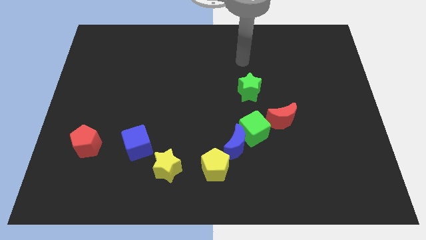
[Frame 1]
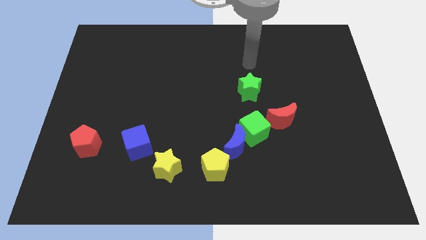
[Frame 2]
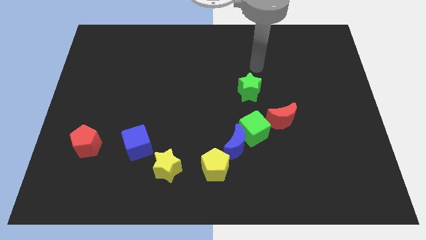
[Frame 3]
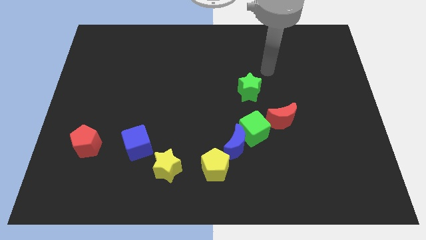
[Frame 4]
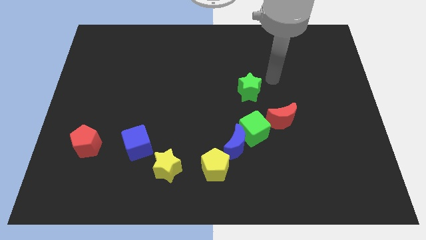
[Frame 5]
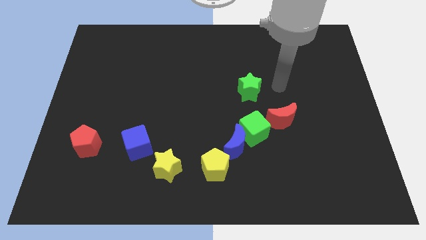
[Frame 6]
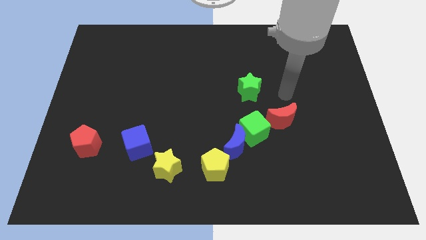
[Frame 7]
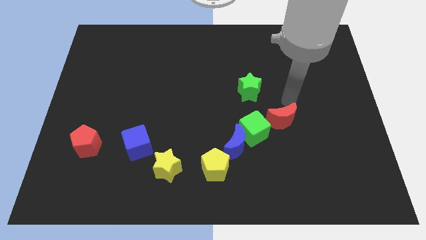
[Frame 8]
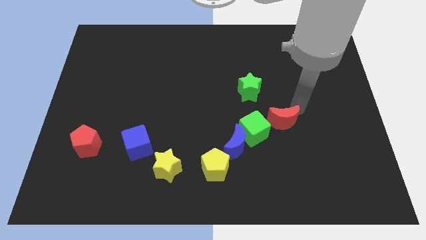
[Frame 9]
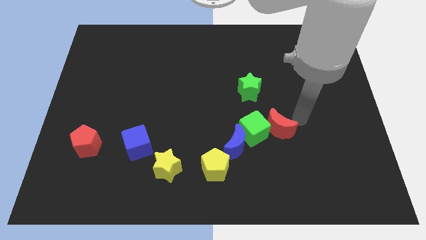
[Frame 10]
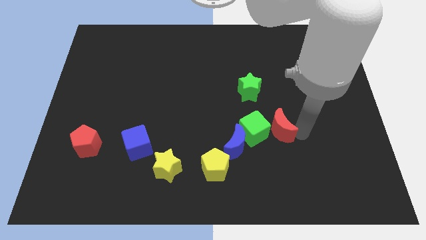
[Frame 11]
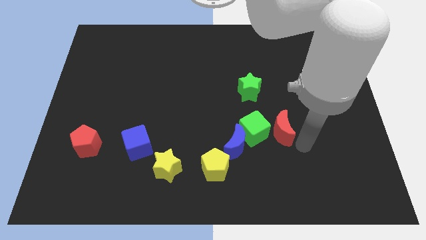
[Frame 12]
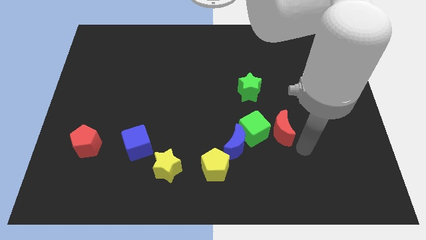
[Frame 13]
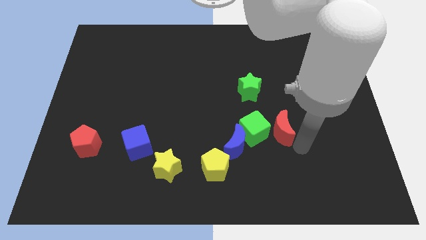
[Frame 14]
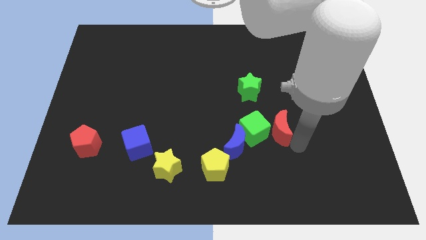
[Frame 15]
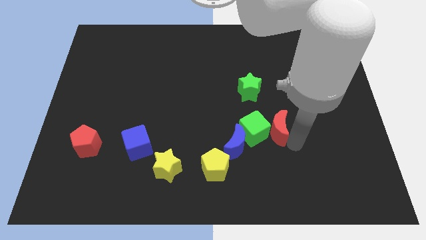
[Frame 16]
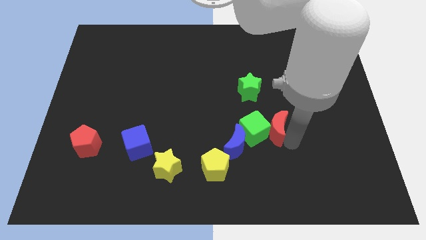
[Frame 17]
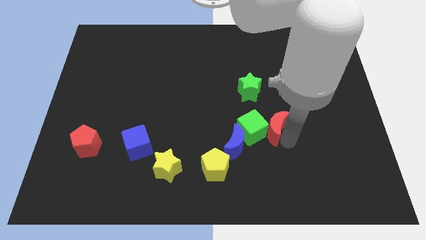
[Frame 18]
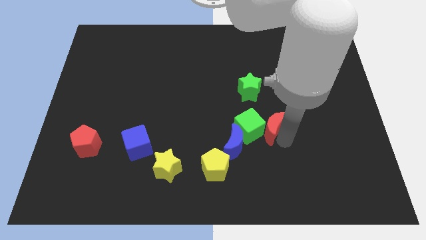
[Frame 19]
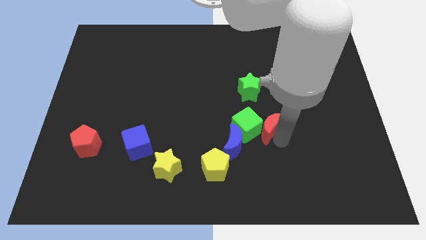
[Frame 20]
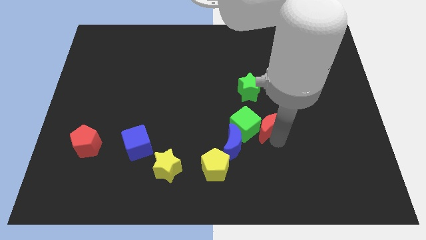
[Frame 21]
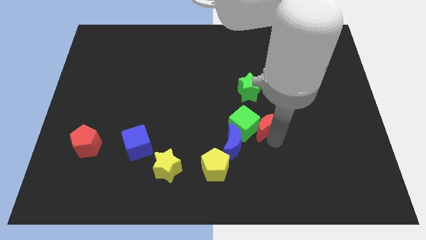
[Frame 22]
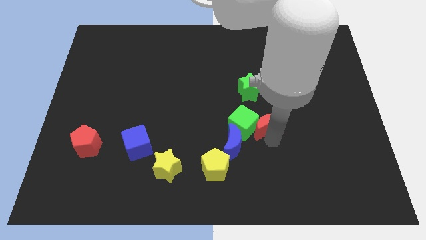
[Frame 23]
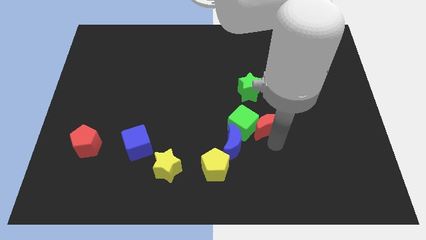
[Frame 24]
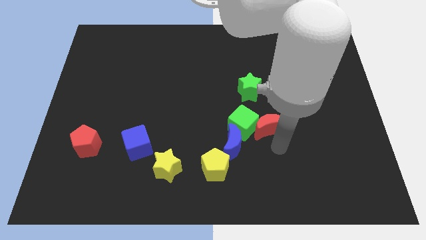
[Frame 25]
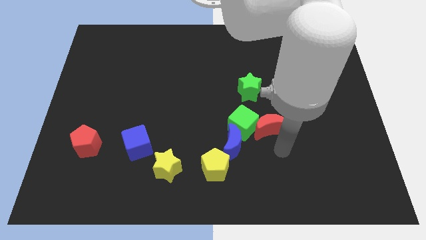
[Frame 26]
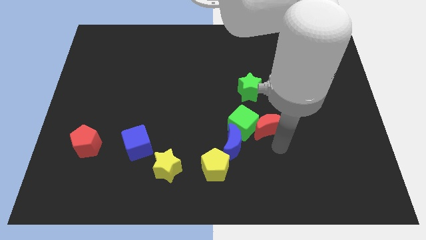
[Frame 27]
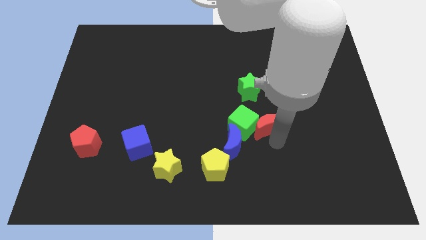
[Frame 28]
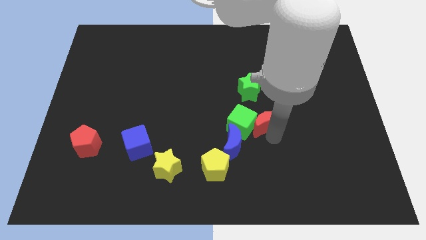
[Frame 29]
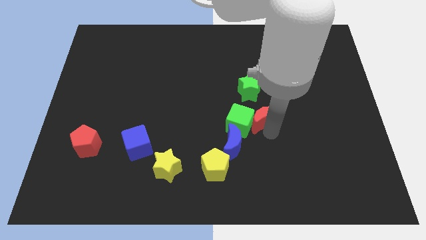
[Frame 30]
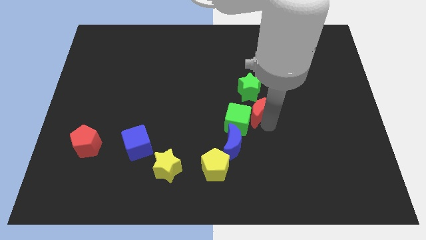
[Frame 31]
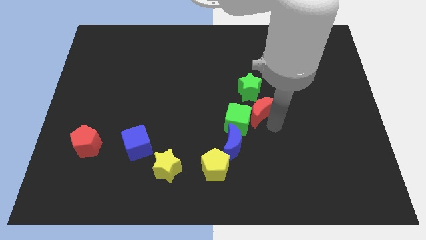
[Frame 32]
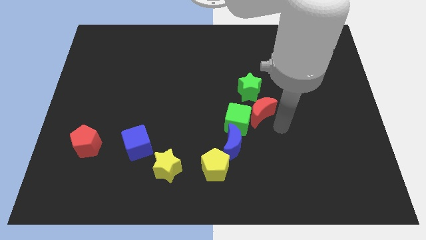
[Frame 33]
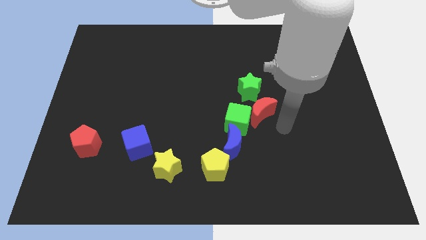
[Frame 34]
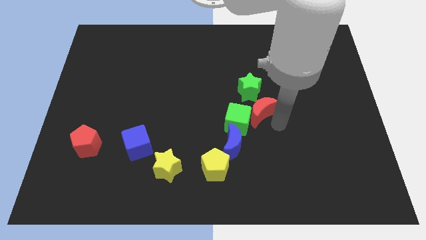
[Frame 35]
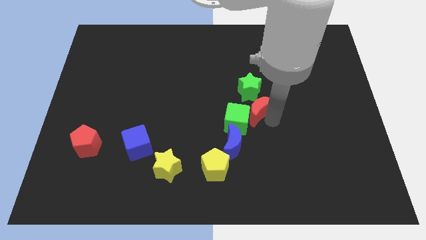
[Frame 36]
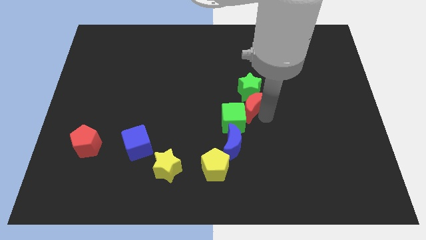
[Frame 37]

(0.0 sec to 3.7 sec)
slide the red moon a little upwards and then left

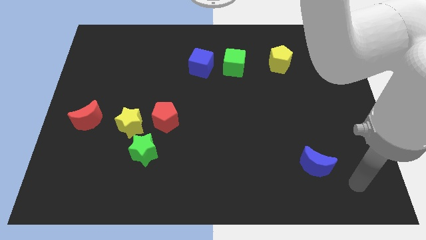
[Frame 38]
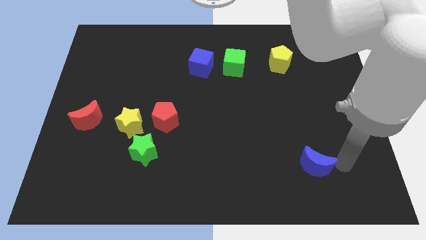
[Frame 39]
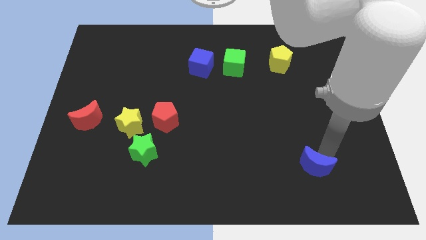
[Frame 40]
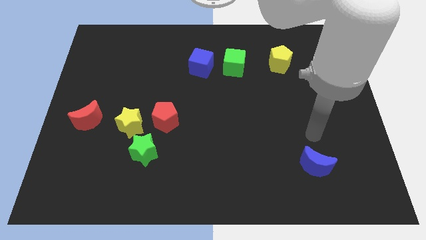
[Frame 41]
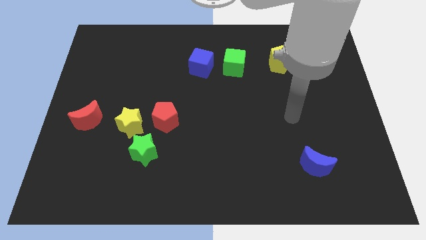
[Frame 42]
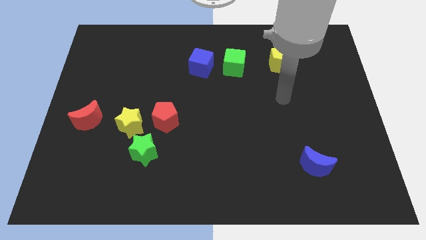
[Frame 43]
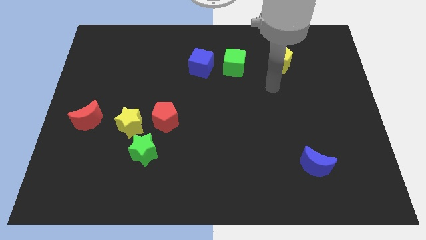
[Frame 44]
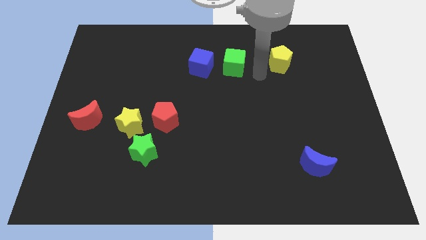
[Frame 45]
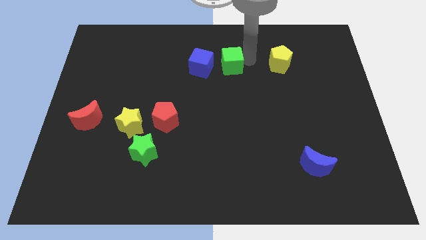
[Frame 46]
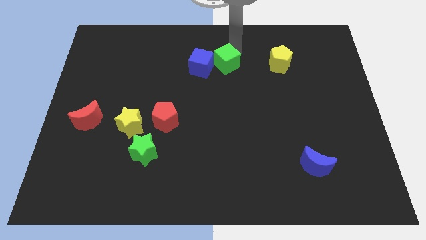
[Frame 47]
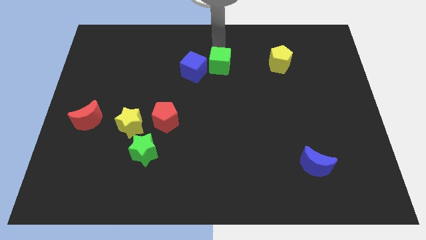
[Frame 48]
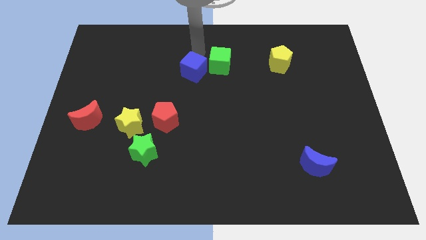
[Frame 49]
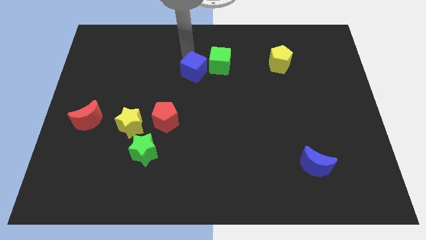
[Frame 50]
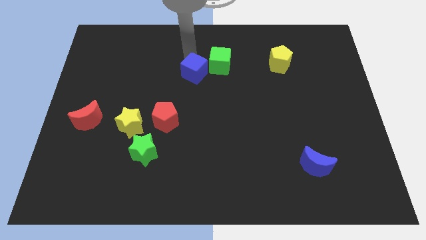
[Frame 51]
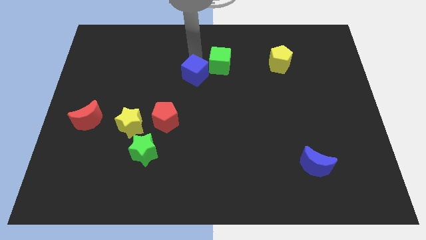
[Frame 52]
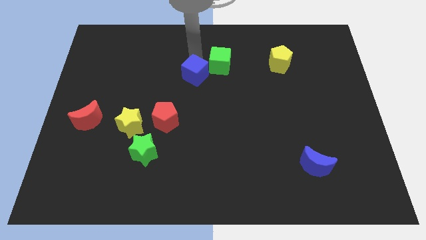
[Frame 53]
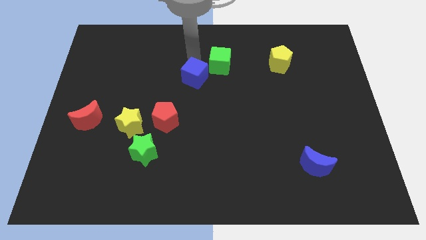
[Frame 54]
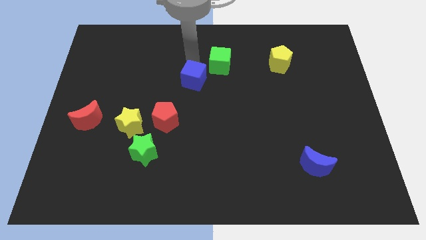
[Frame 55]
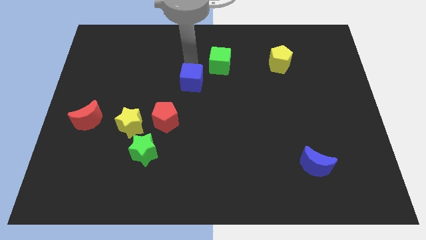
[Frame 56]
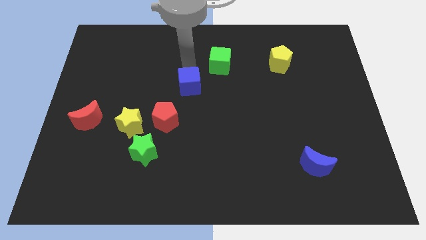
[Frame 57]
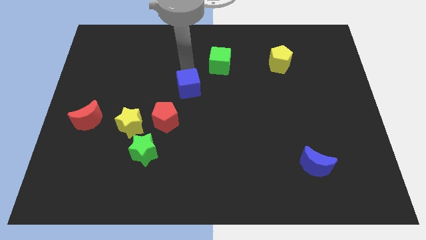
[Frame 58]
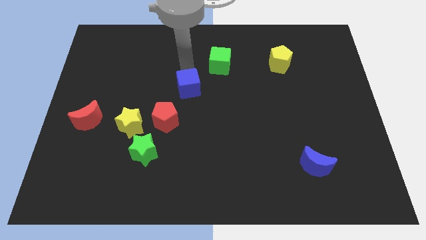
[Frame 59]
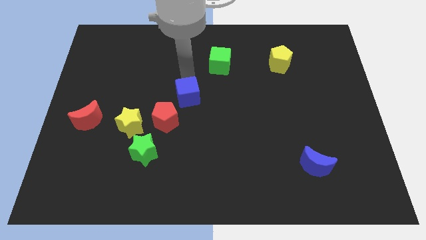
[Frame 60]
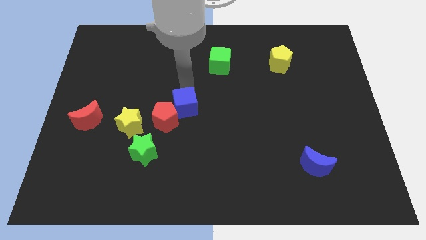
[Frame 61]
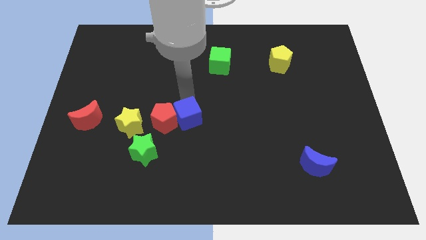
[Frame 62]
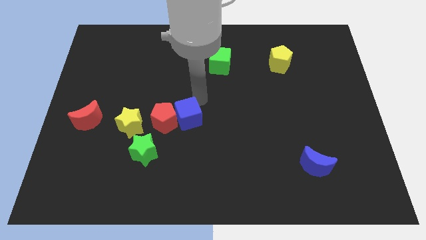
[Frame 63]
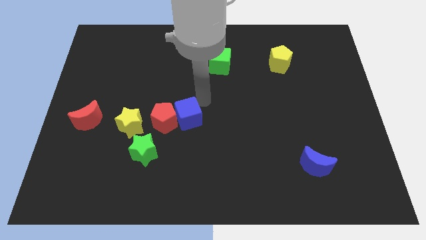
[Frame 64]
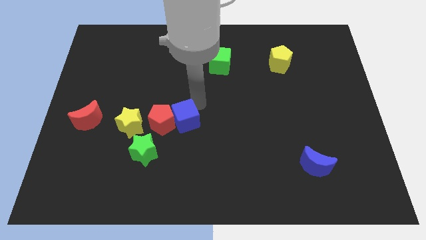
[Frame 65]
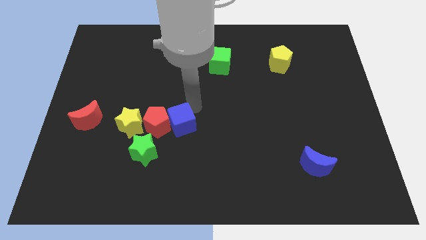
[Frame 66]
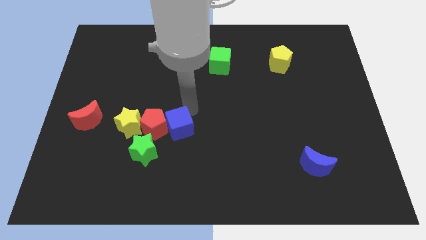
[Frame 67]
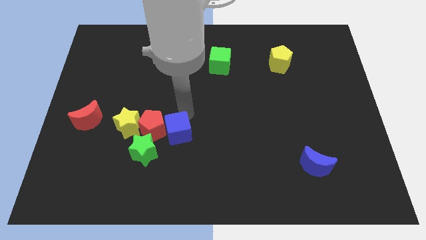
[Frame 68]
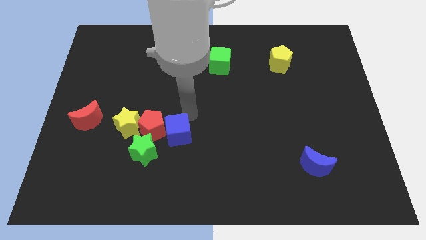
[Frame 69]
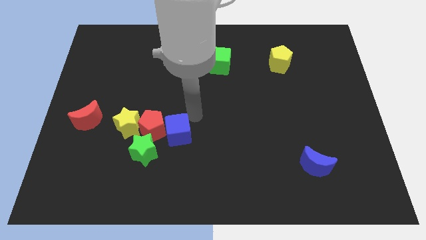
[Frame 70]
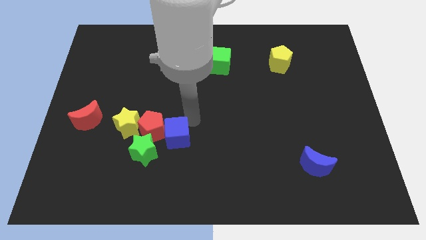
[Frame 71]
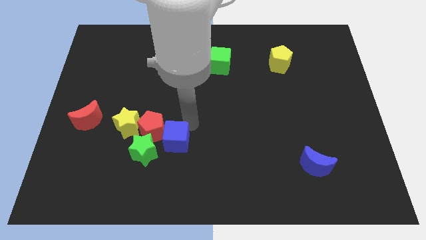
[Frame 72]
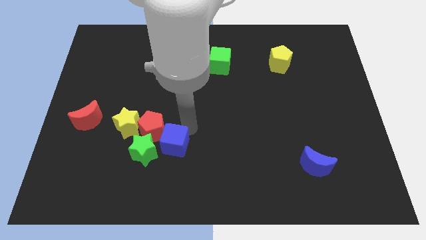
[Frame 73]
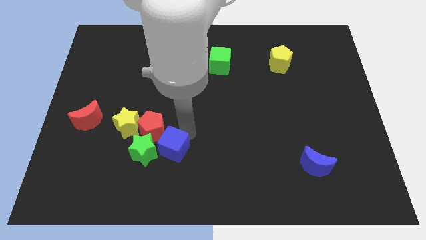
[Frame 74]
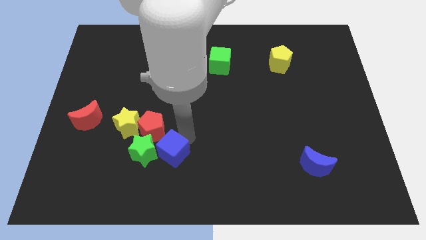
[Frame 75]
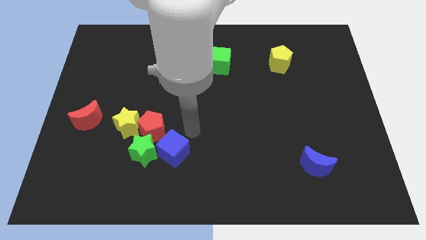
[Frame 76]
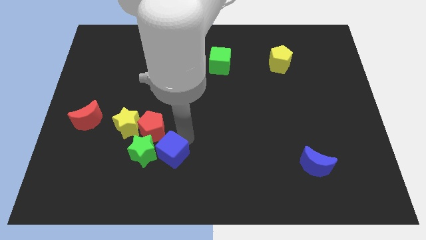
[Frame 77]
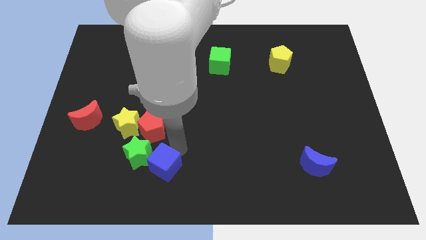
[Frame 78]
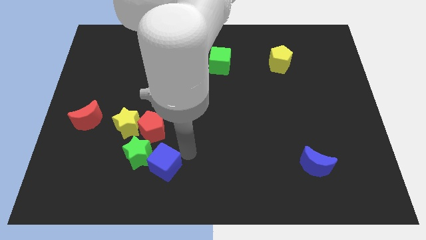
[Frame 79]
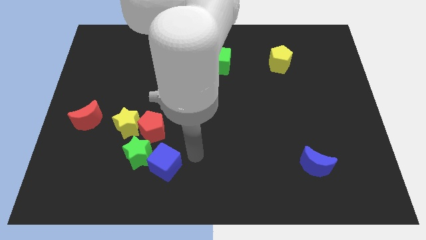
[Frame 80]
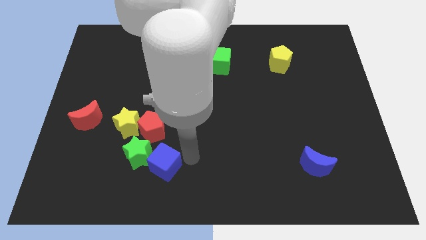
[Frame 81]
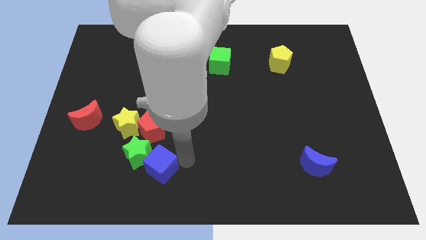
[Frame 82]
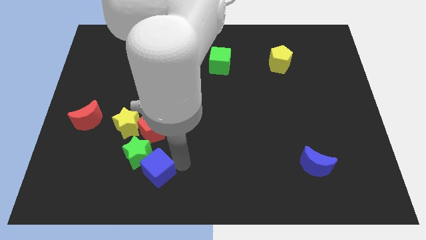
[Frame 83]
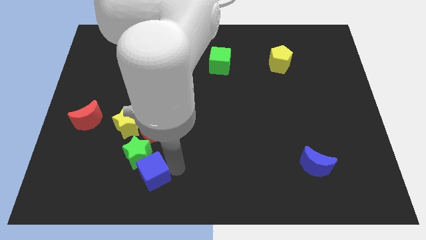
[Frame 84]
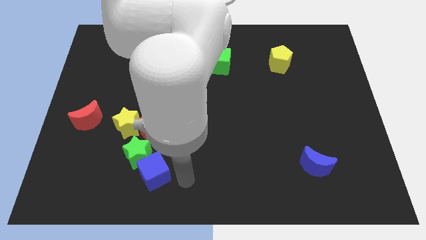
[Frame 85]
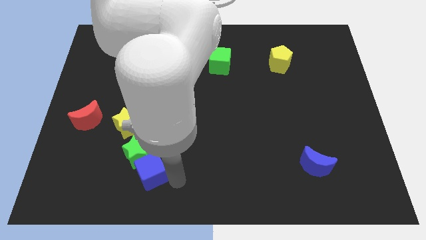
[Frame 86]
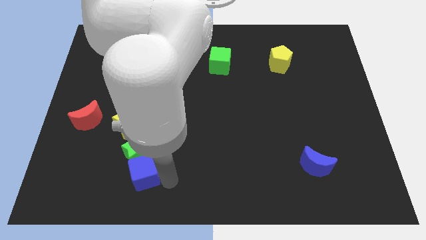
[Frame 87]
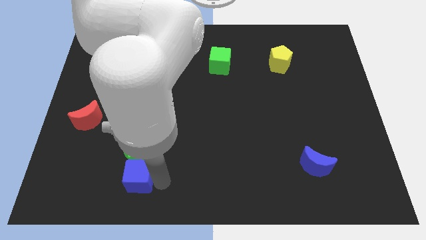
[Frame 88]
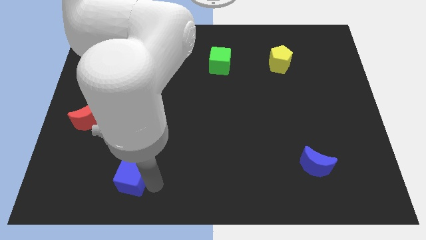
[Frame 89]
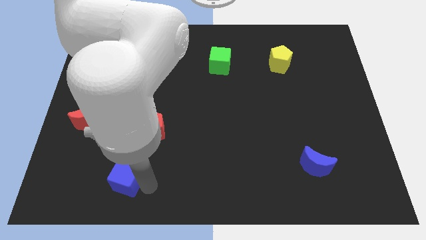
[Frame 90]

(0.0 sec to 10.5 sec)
move the blue cube down and to the left
